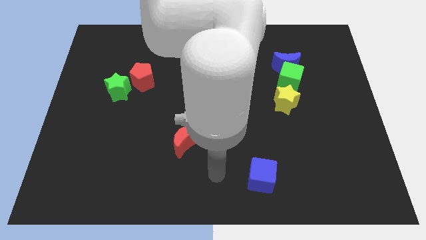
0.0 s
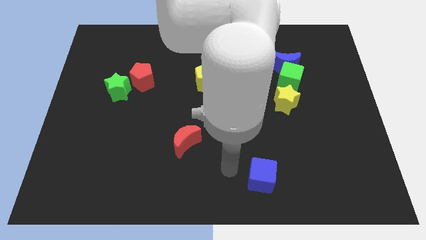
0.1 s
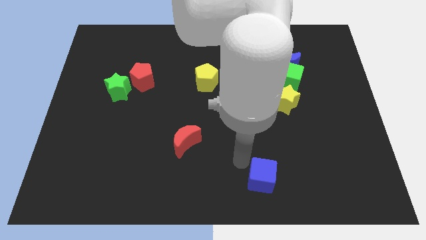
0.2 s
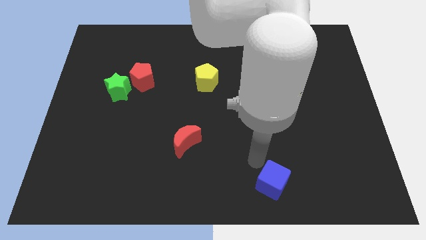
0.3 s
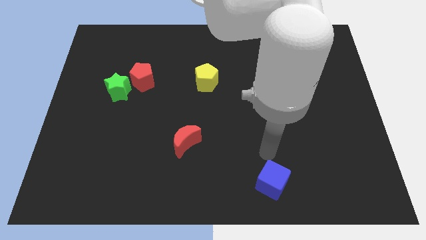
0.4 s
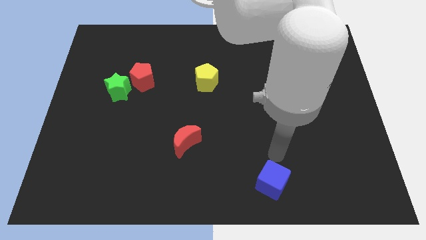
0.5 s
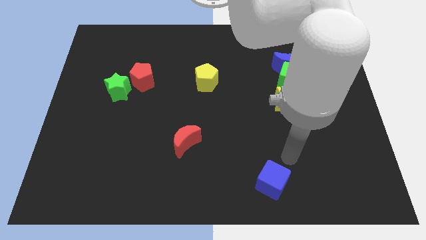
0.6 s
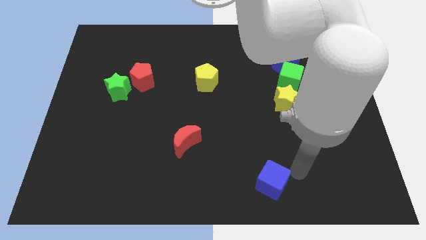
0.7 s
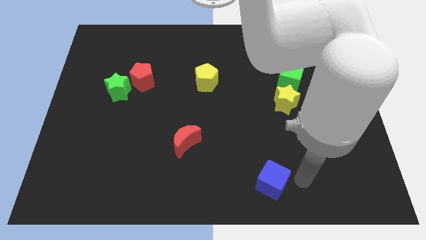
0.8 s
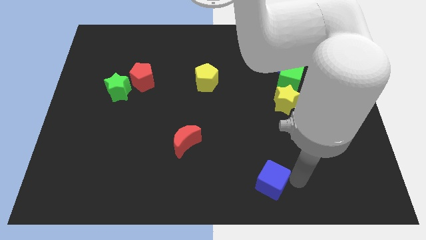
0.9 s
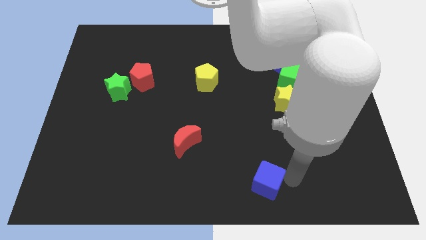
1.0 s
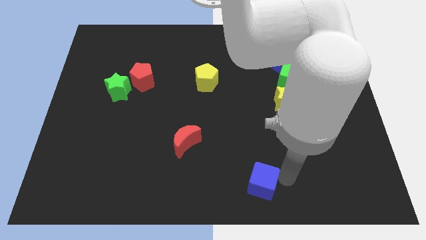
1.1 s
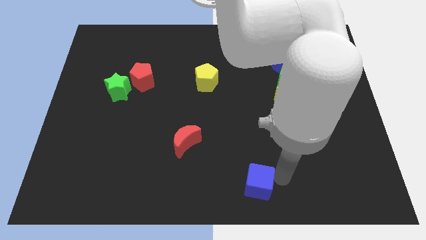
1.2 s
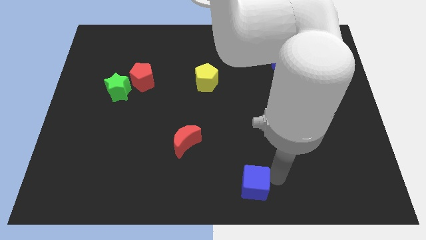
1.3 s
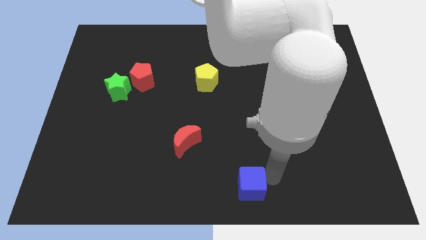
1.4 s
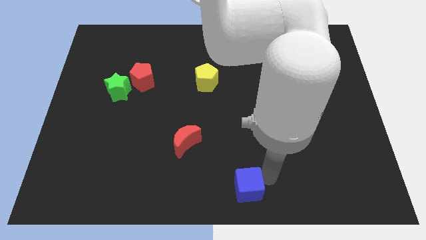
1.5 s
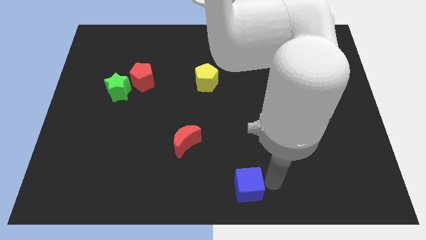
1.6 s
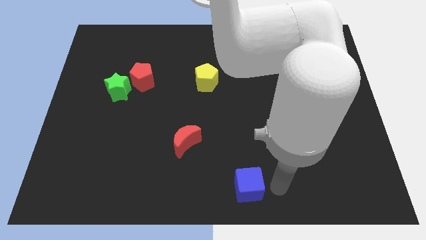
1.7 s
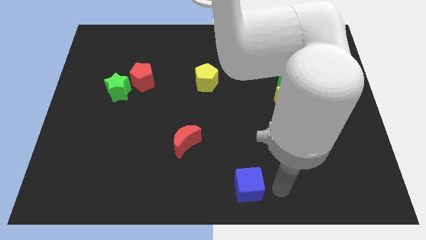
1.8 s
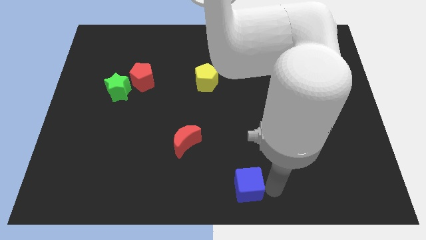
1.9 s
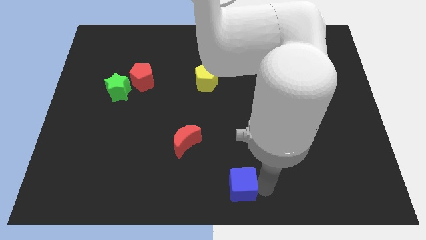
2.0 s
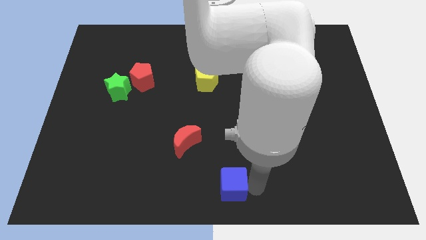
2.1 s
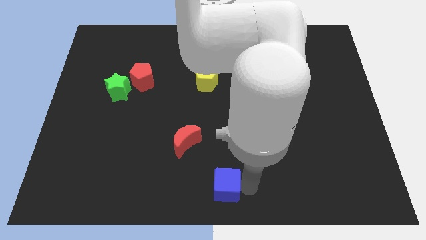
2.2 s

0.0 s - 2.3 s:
move the blue cube left somewhat

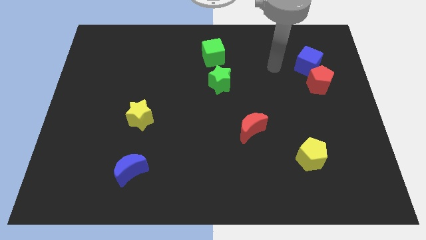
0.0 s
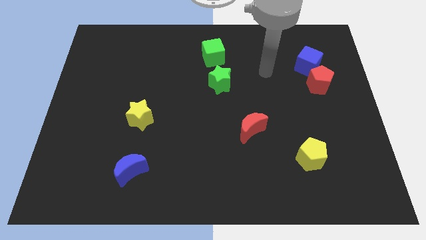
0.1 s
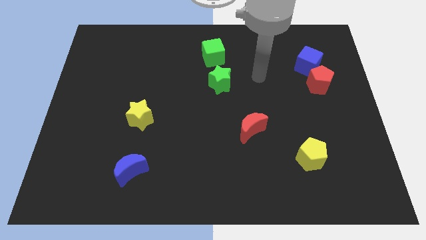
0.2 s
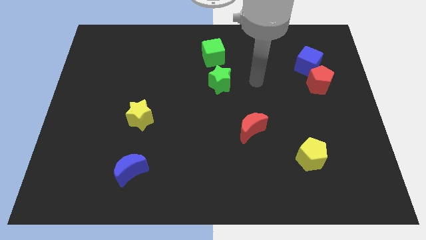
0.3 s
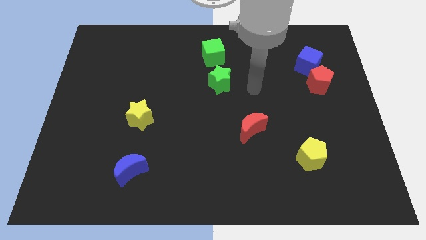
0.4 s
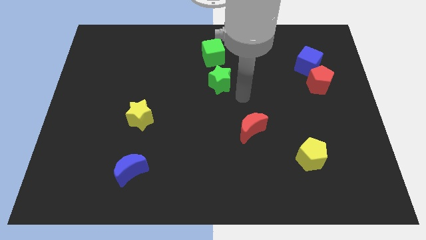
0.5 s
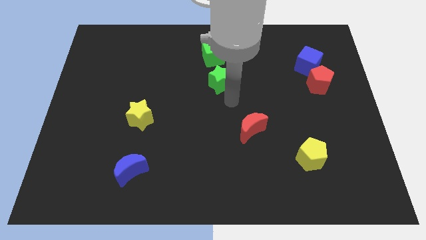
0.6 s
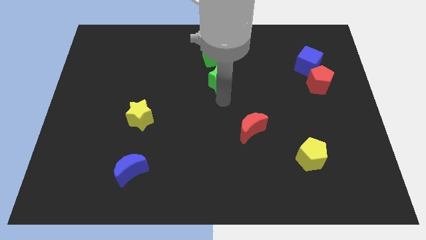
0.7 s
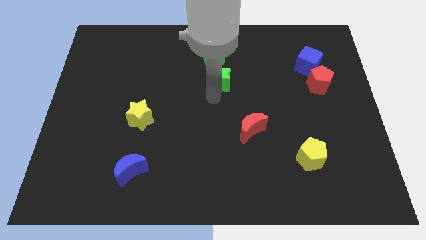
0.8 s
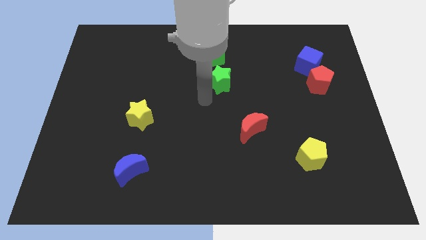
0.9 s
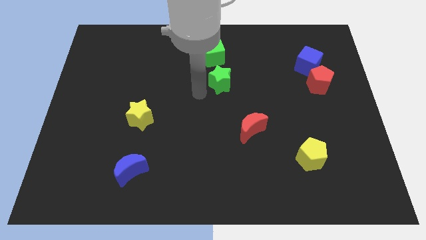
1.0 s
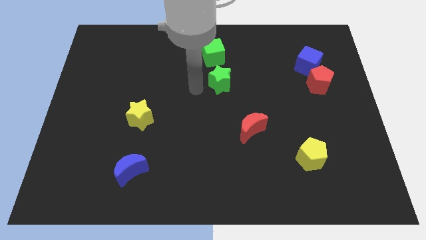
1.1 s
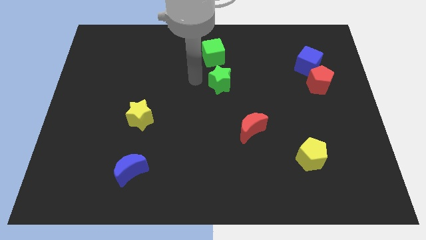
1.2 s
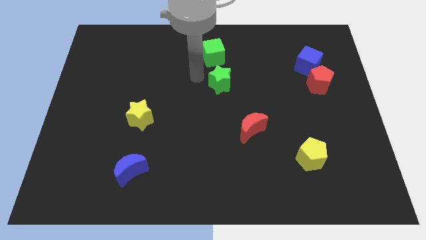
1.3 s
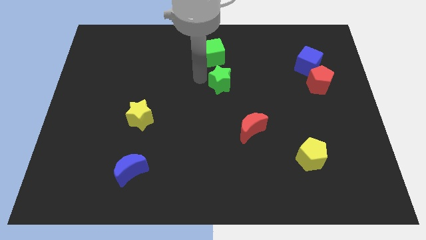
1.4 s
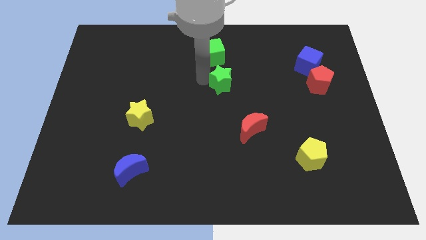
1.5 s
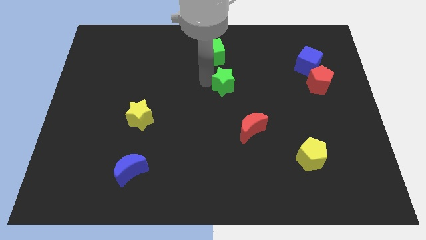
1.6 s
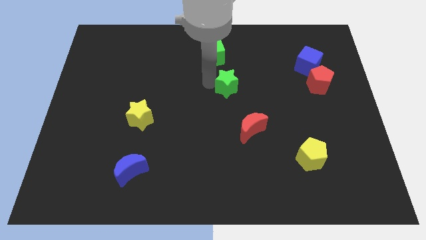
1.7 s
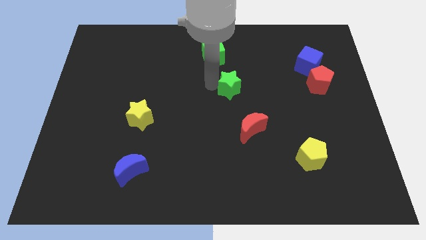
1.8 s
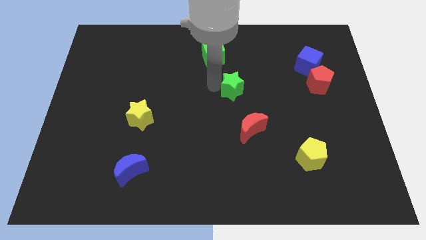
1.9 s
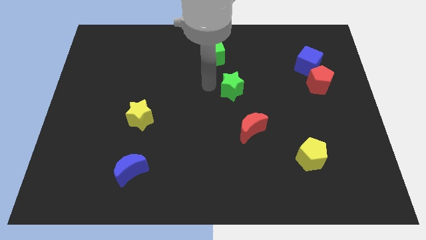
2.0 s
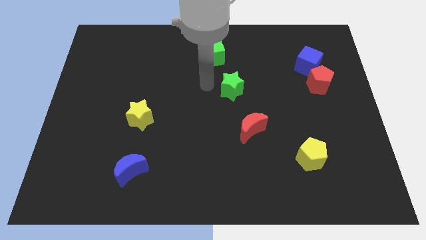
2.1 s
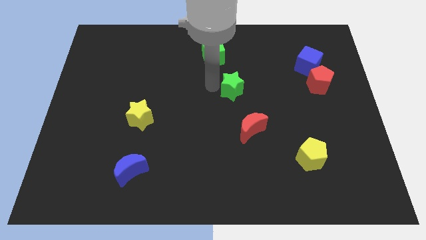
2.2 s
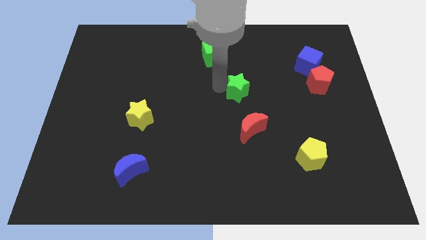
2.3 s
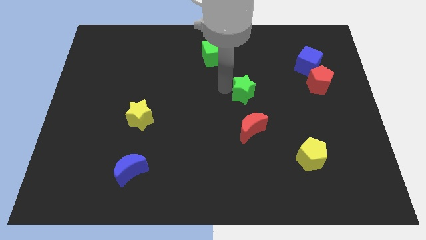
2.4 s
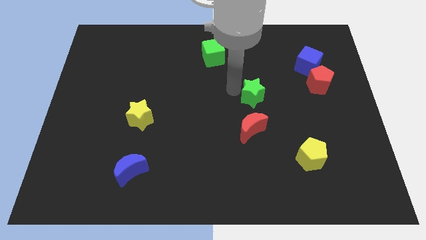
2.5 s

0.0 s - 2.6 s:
slightly slide the green star to the right

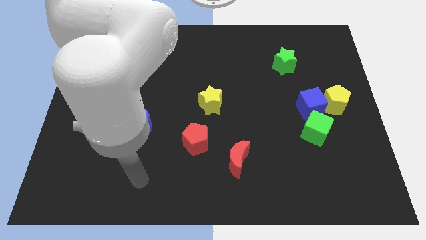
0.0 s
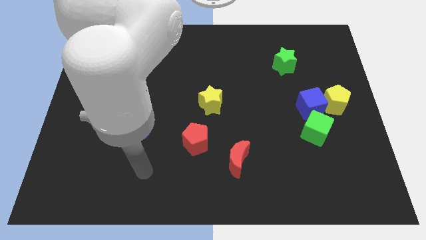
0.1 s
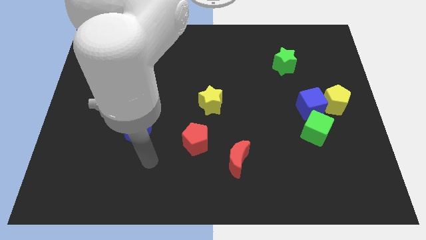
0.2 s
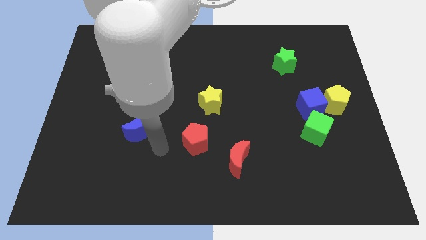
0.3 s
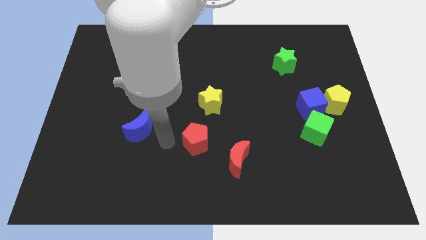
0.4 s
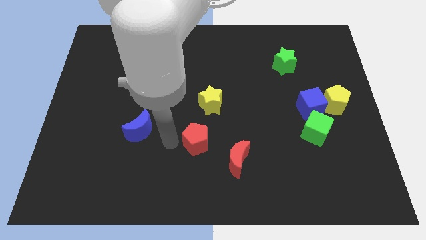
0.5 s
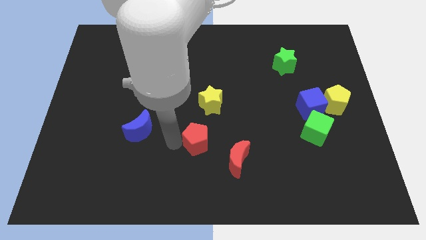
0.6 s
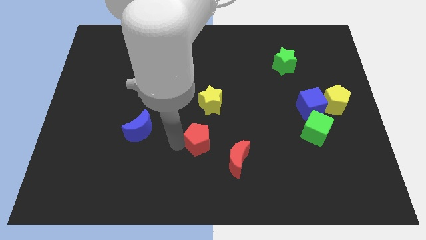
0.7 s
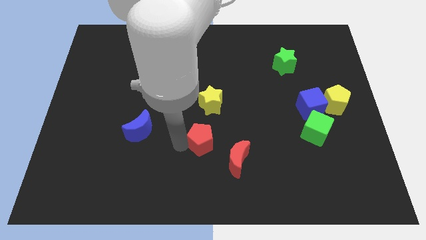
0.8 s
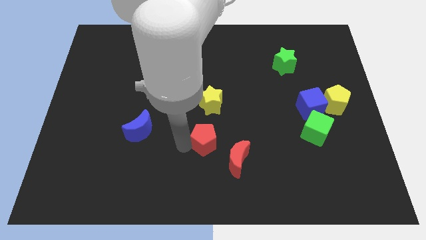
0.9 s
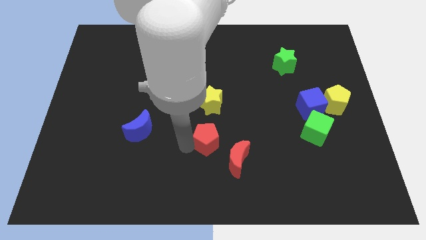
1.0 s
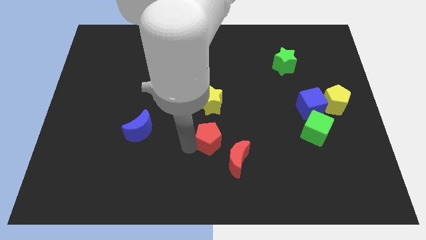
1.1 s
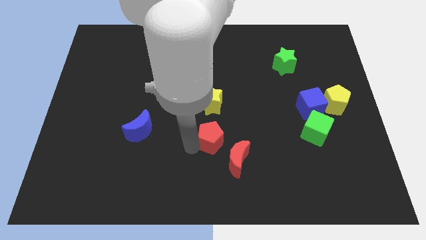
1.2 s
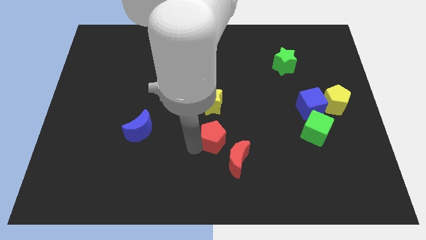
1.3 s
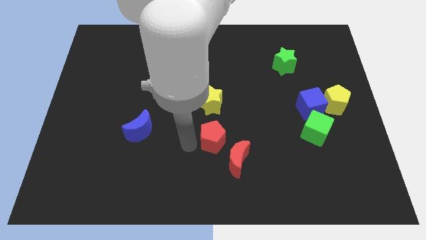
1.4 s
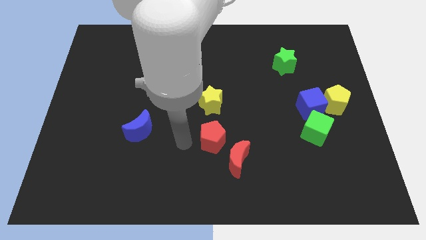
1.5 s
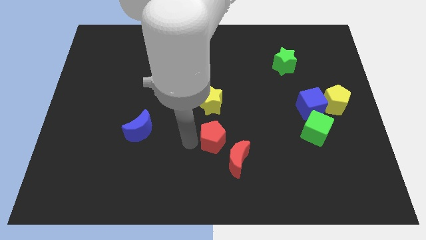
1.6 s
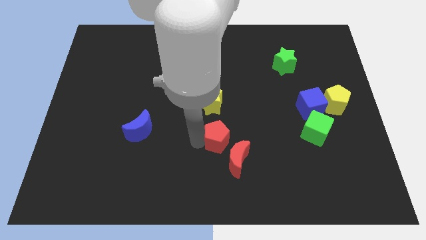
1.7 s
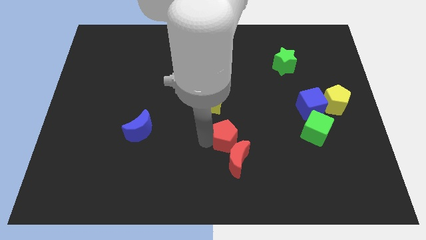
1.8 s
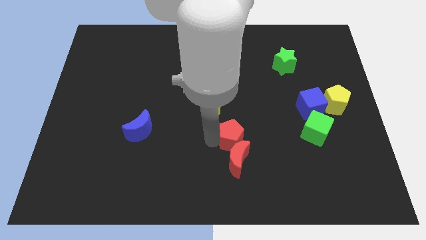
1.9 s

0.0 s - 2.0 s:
slightly push the red pentagon right

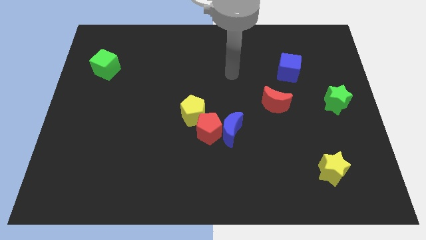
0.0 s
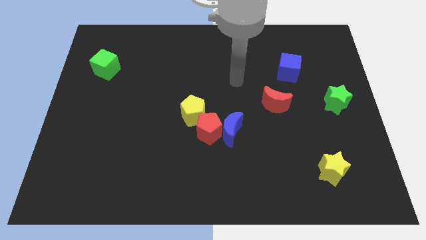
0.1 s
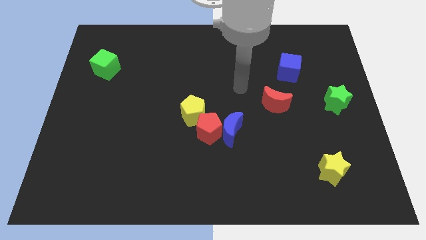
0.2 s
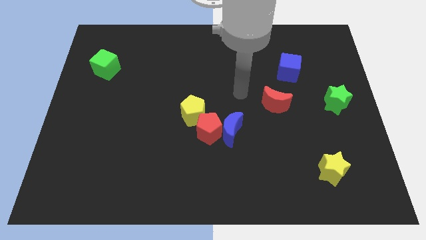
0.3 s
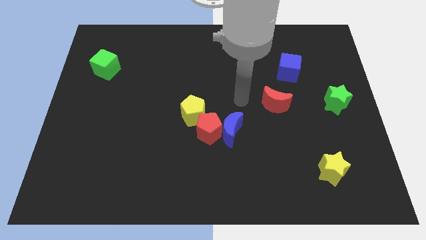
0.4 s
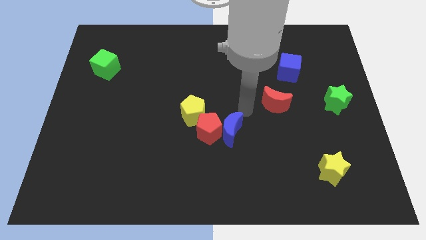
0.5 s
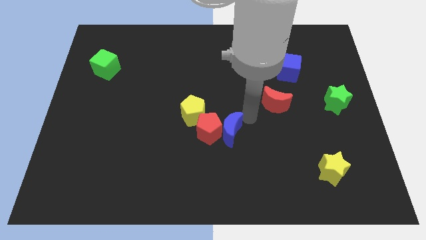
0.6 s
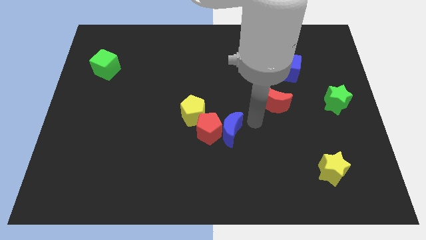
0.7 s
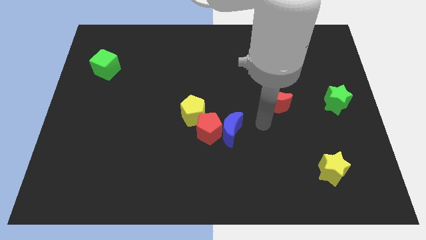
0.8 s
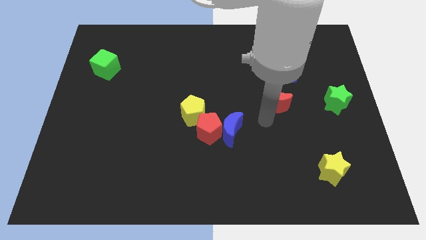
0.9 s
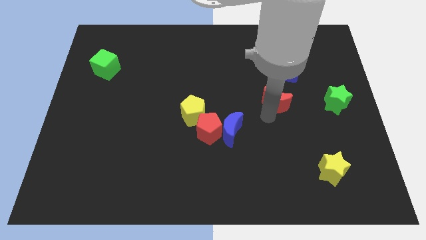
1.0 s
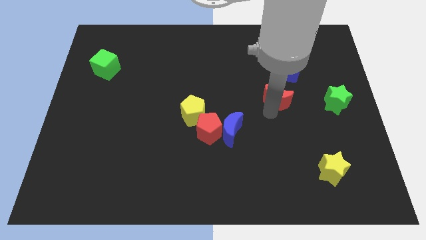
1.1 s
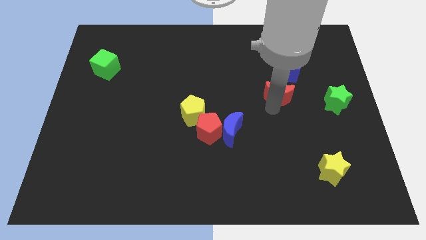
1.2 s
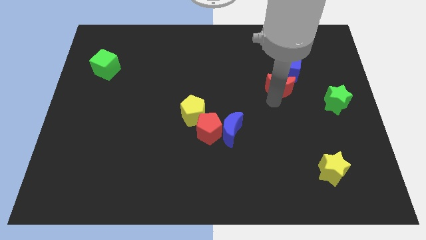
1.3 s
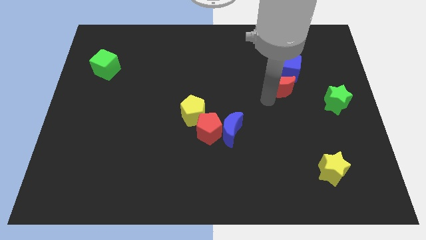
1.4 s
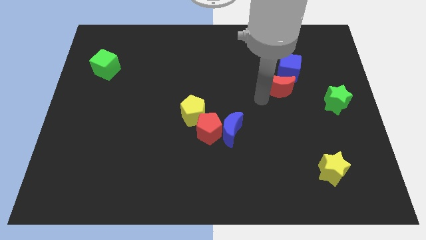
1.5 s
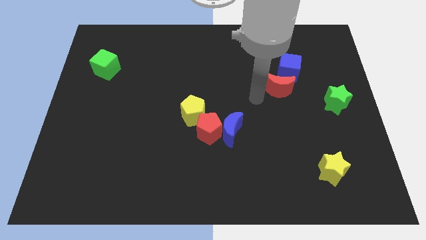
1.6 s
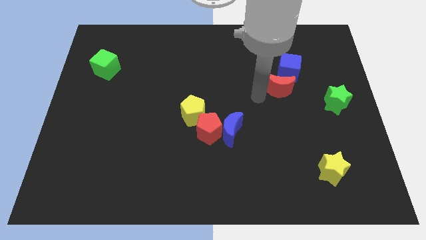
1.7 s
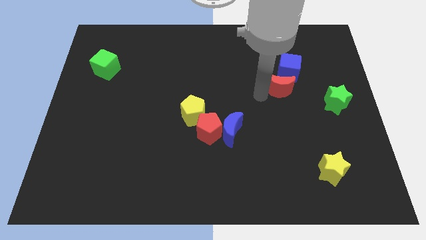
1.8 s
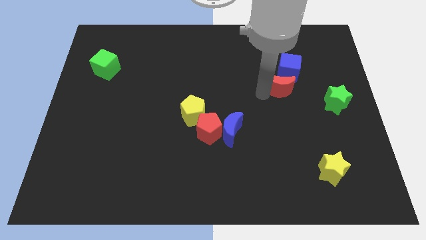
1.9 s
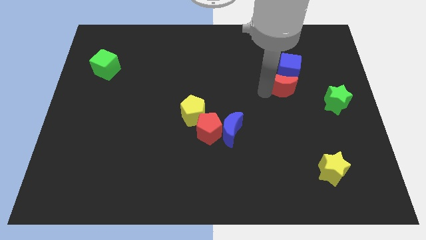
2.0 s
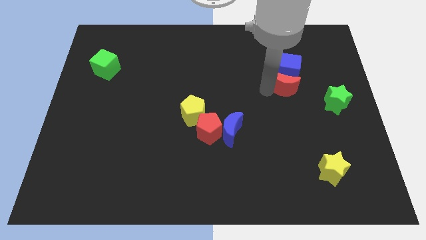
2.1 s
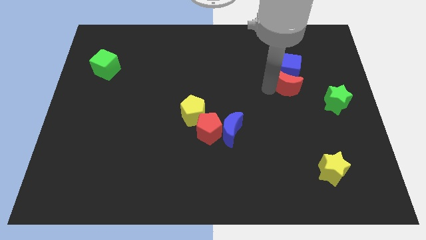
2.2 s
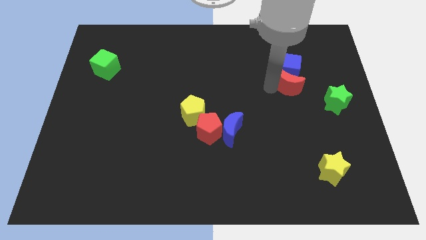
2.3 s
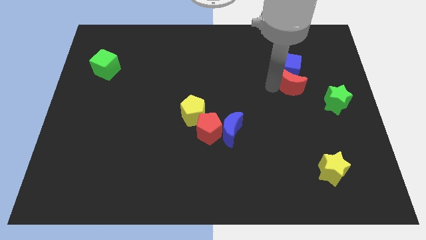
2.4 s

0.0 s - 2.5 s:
move the red moon a little diagonally up and to the right
